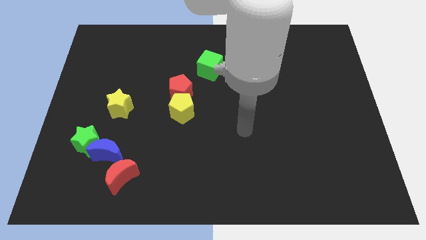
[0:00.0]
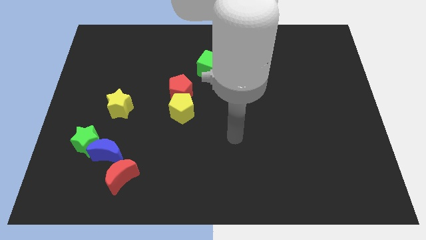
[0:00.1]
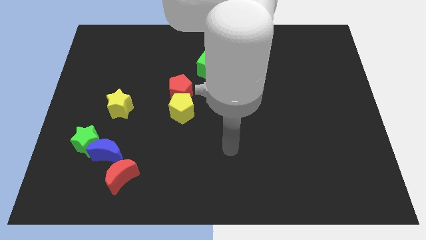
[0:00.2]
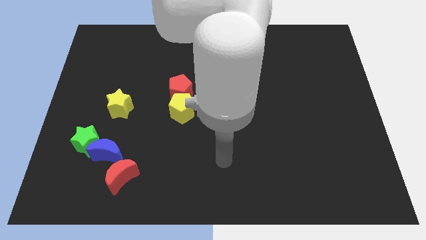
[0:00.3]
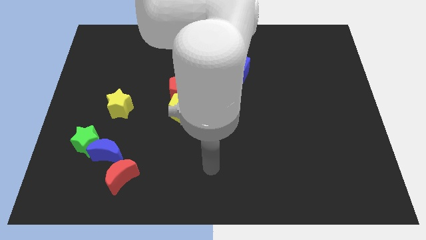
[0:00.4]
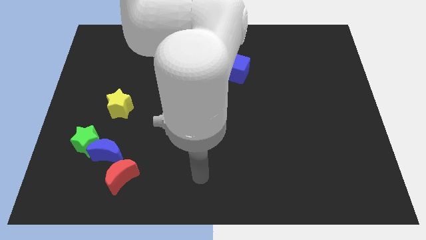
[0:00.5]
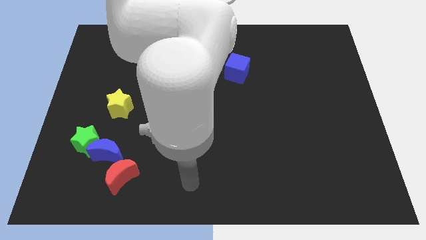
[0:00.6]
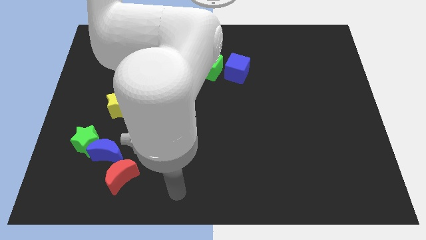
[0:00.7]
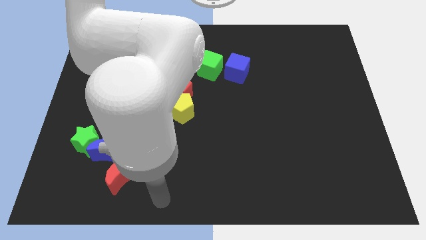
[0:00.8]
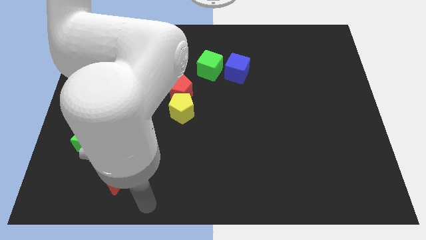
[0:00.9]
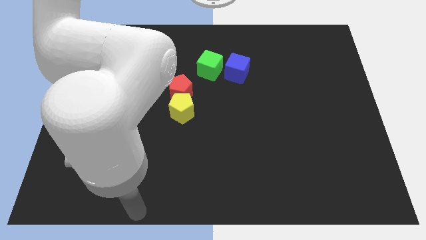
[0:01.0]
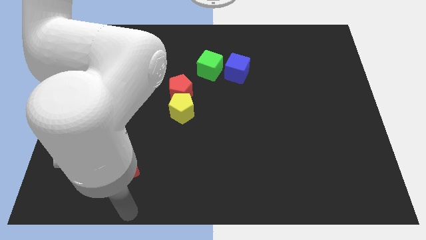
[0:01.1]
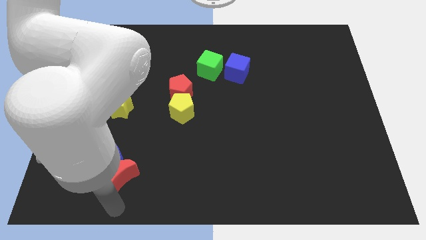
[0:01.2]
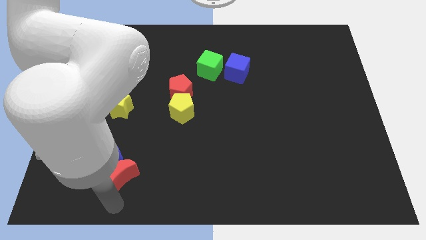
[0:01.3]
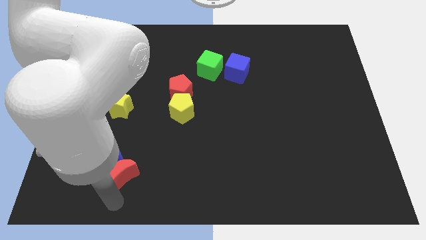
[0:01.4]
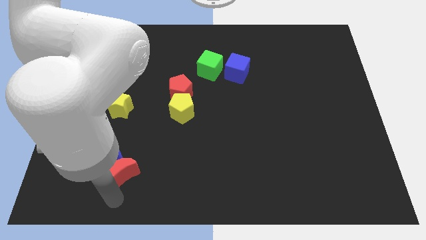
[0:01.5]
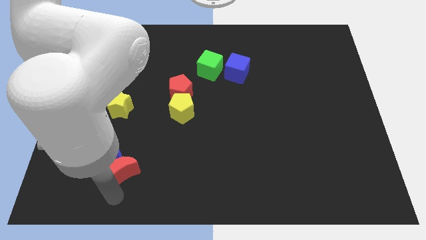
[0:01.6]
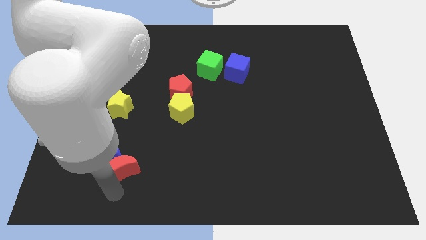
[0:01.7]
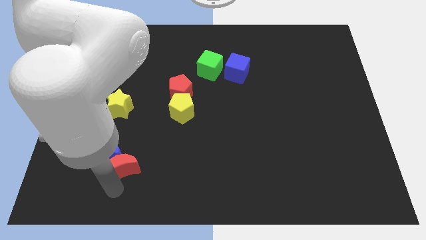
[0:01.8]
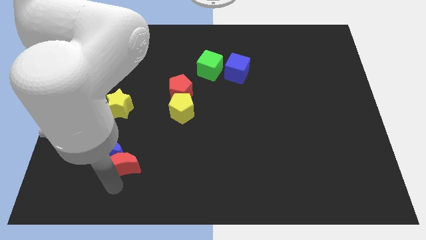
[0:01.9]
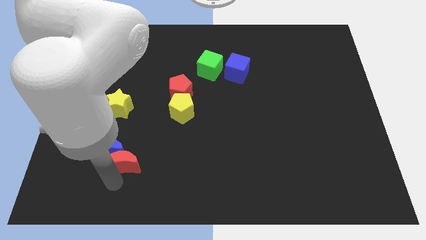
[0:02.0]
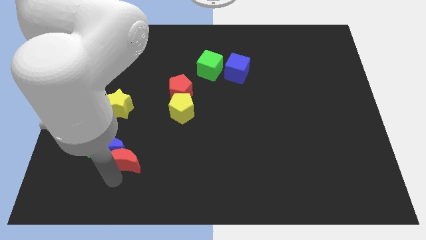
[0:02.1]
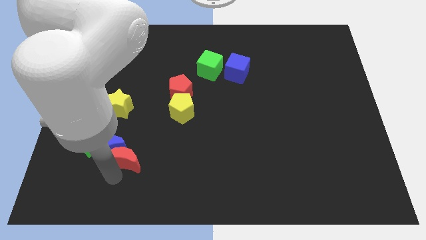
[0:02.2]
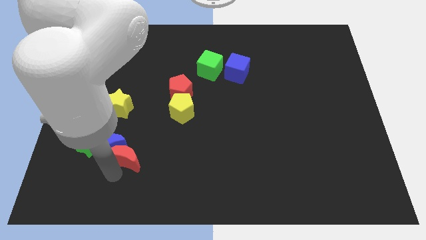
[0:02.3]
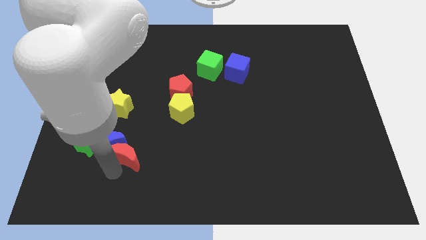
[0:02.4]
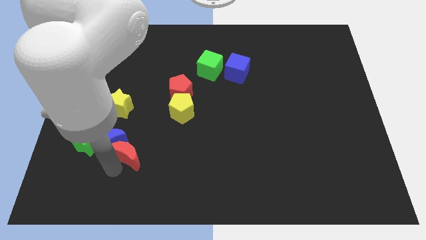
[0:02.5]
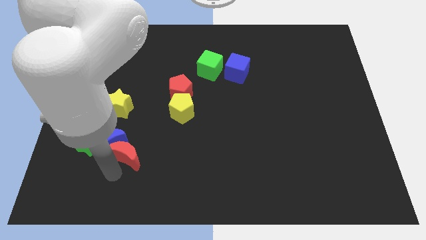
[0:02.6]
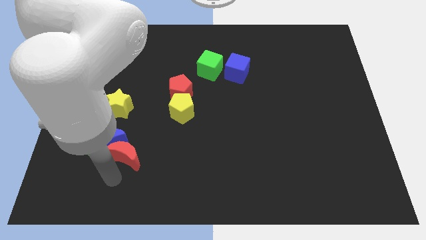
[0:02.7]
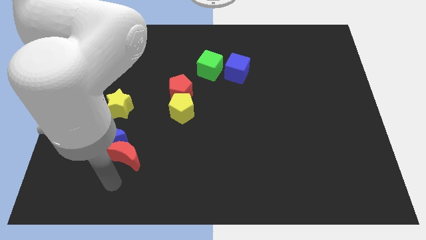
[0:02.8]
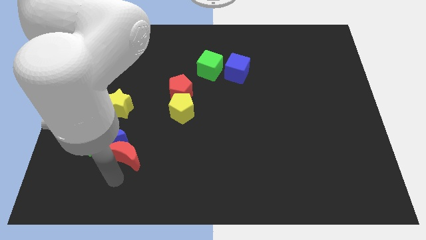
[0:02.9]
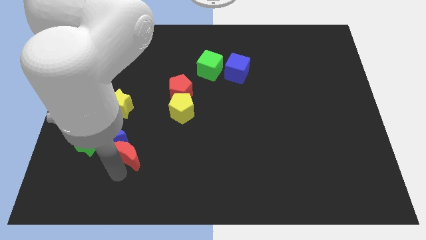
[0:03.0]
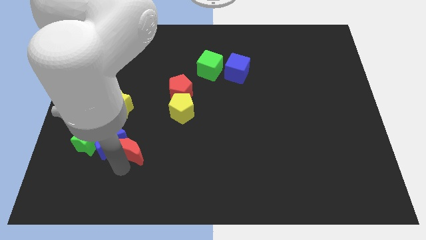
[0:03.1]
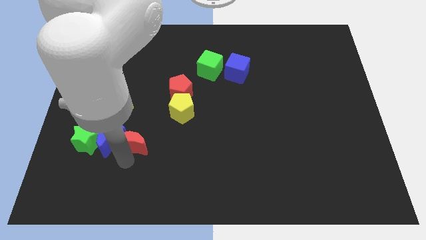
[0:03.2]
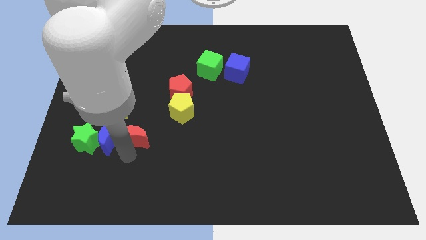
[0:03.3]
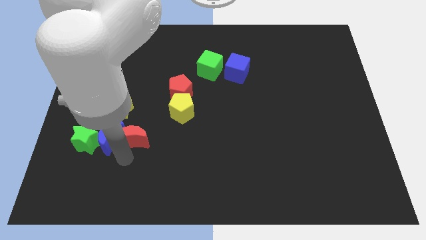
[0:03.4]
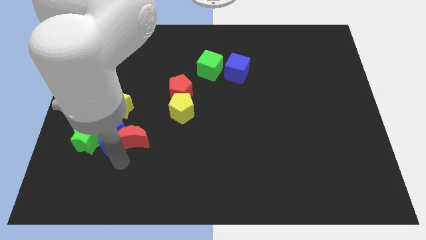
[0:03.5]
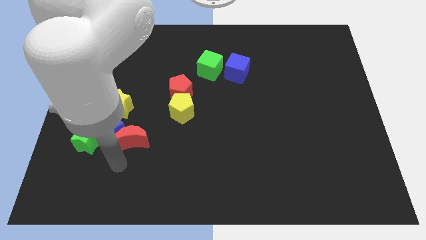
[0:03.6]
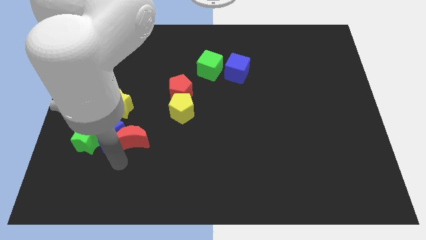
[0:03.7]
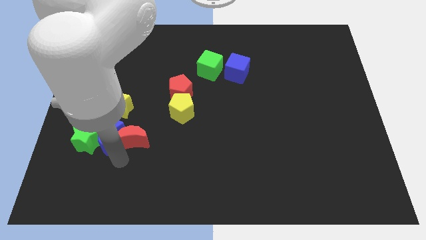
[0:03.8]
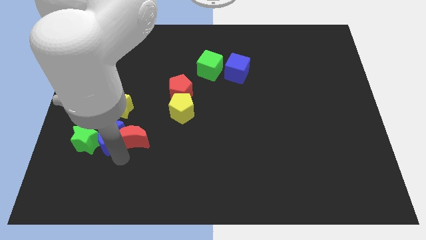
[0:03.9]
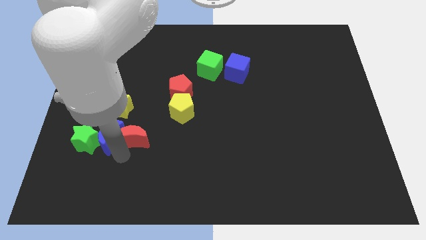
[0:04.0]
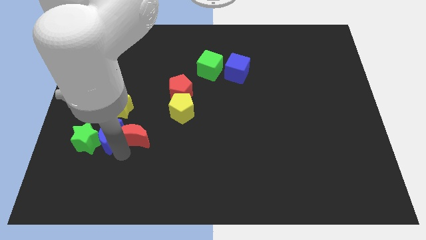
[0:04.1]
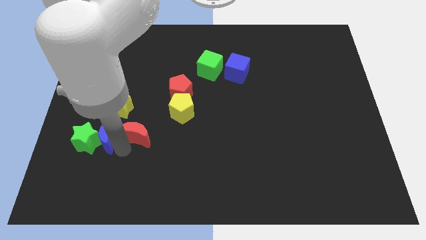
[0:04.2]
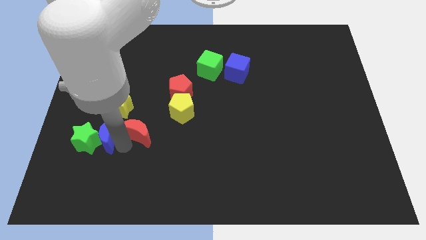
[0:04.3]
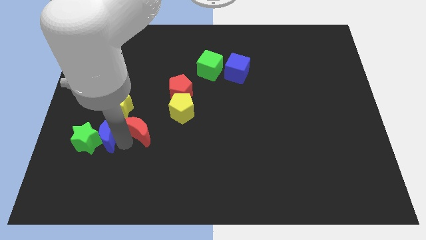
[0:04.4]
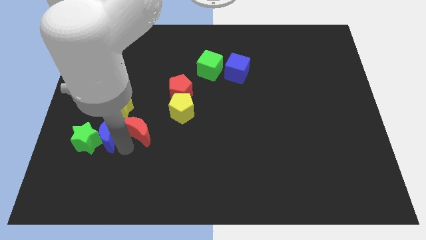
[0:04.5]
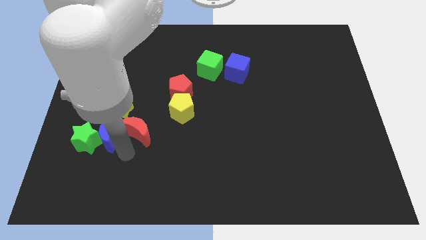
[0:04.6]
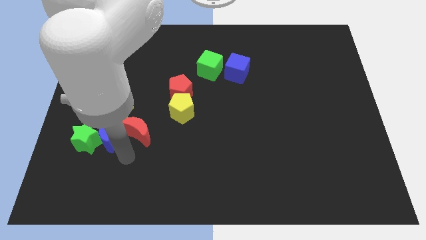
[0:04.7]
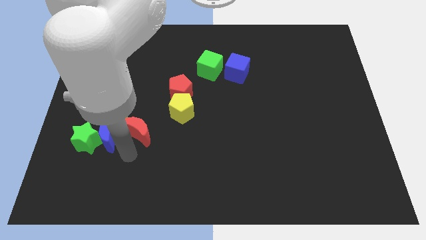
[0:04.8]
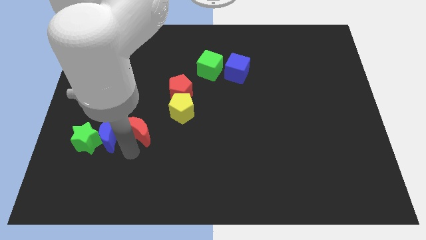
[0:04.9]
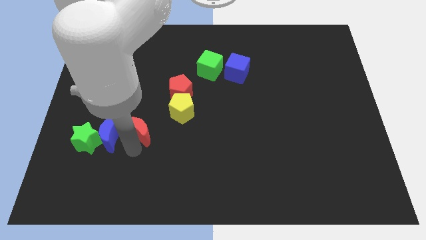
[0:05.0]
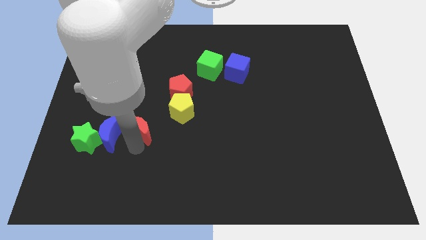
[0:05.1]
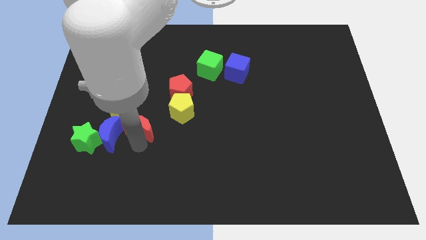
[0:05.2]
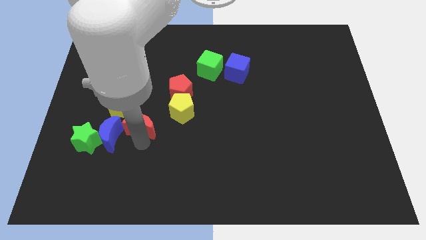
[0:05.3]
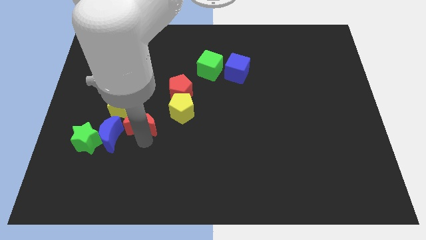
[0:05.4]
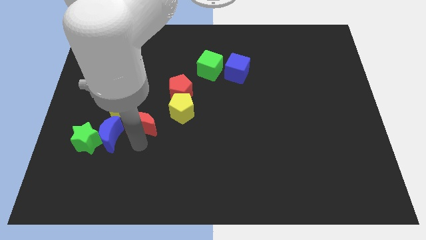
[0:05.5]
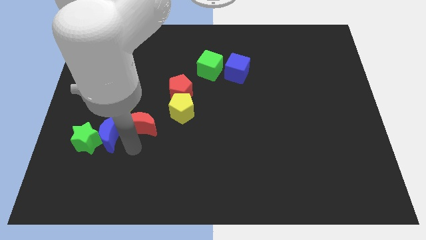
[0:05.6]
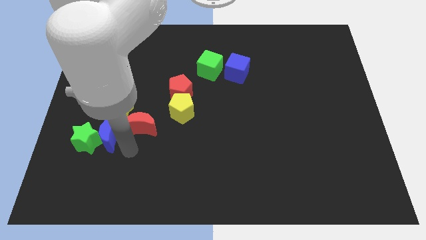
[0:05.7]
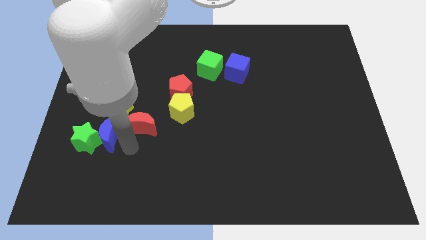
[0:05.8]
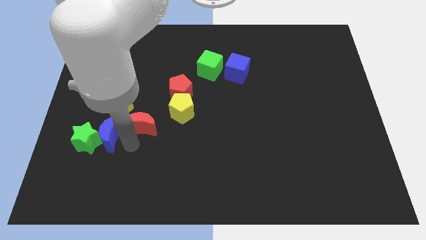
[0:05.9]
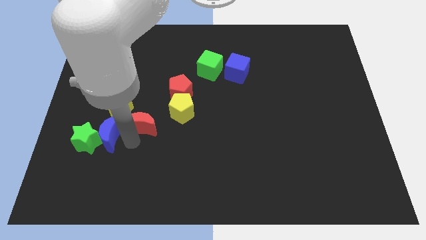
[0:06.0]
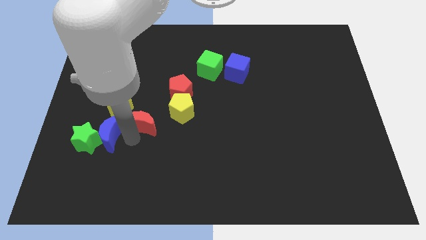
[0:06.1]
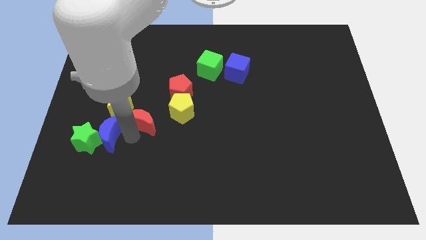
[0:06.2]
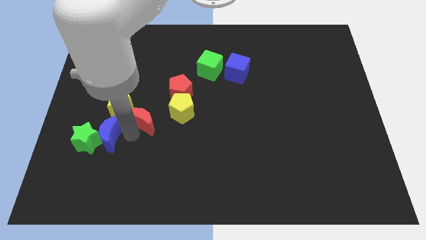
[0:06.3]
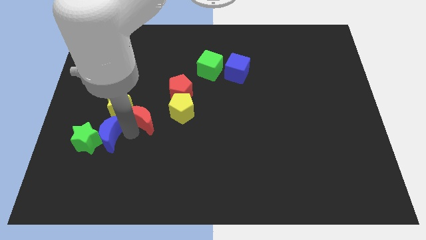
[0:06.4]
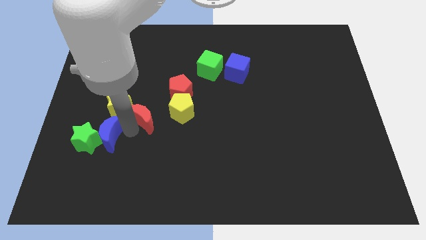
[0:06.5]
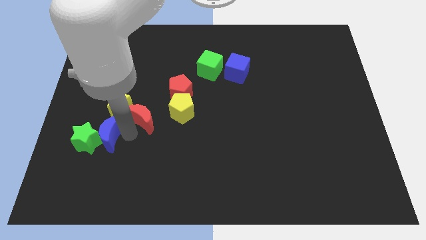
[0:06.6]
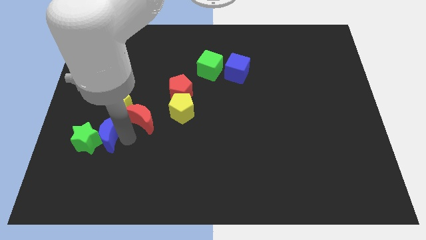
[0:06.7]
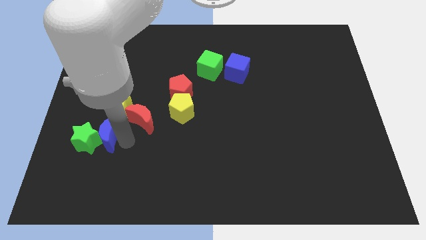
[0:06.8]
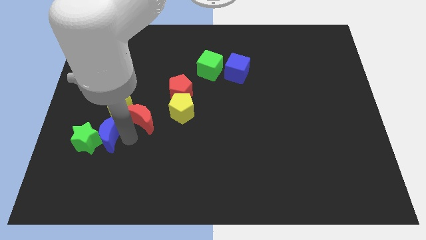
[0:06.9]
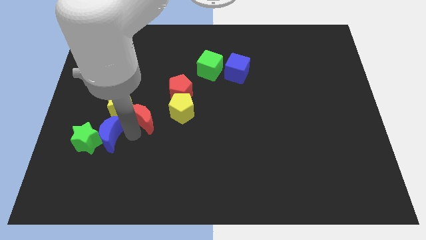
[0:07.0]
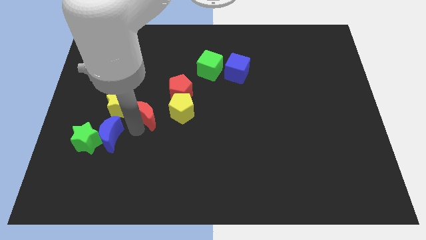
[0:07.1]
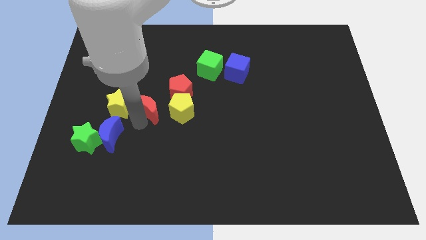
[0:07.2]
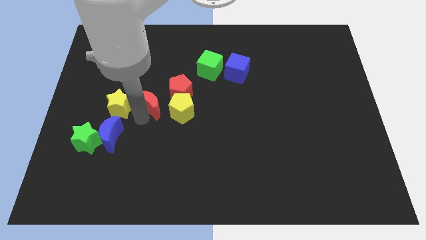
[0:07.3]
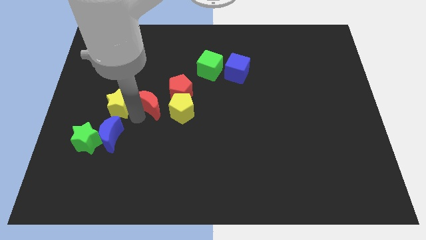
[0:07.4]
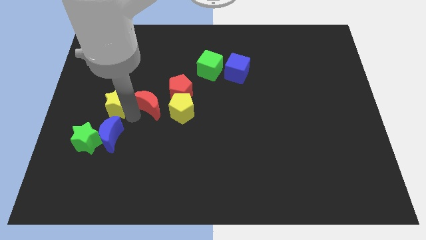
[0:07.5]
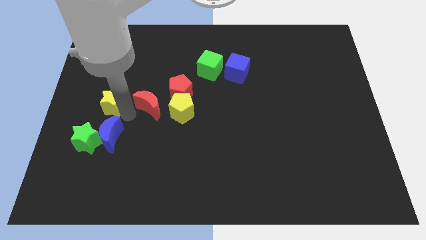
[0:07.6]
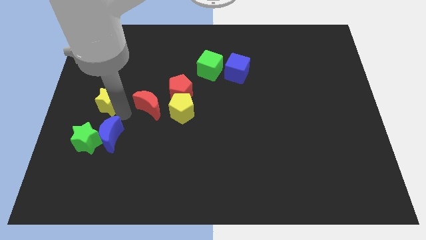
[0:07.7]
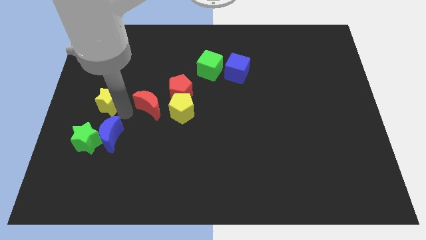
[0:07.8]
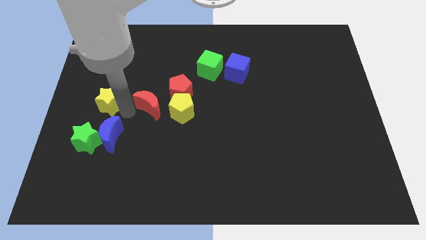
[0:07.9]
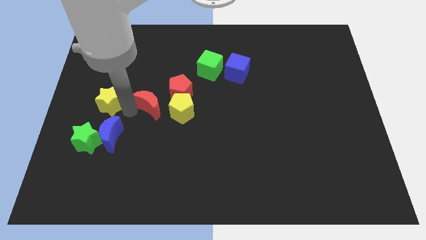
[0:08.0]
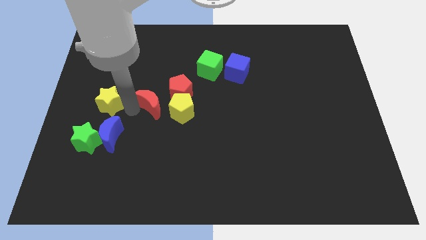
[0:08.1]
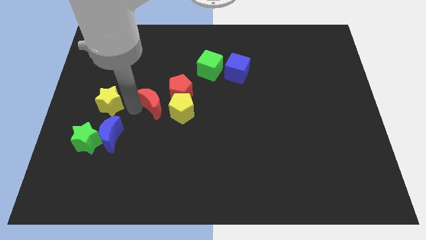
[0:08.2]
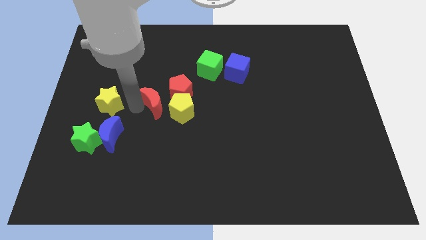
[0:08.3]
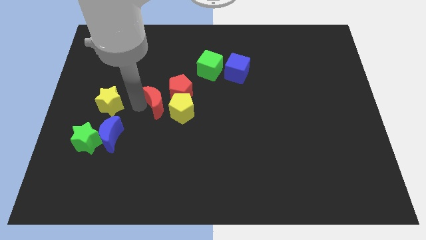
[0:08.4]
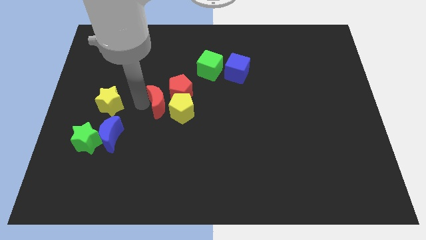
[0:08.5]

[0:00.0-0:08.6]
put the red moon to the red pentagon
